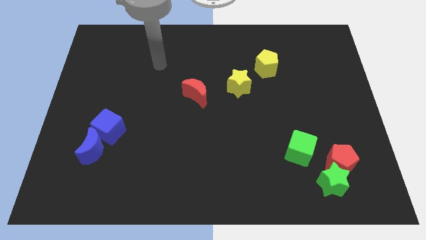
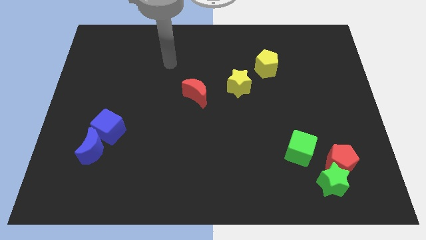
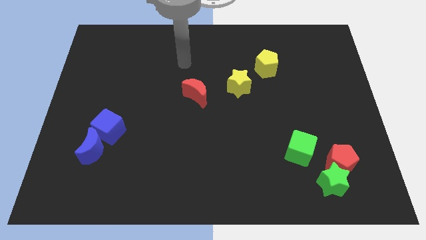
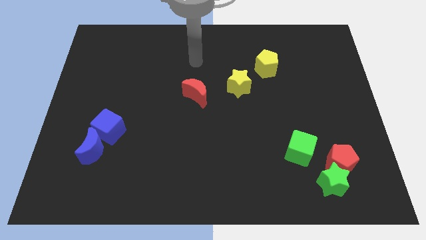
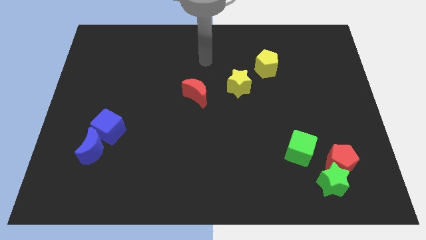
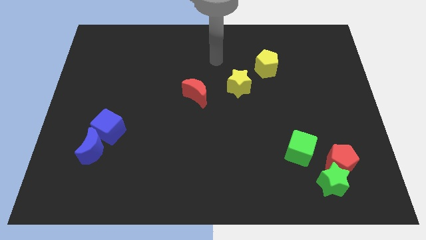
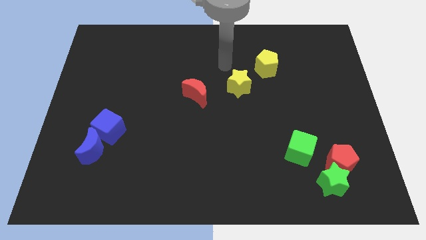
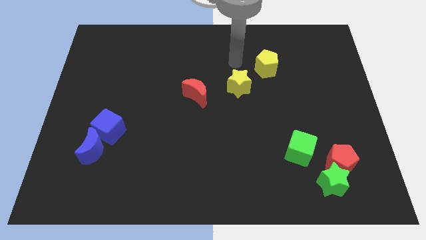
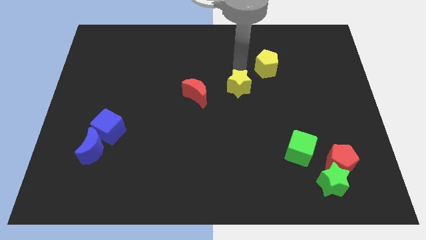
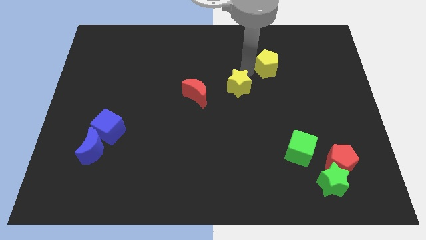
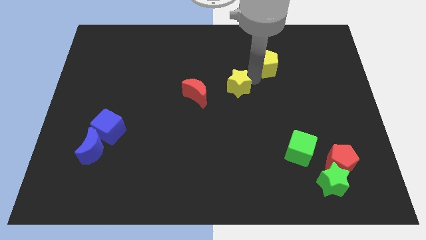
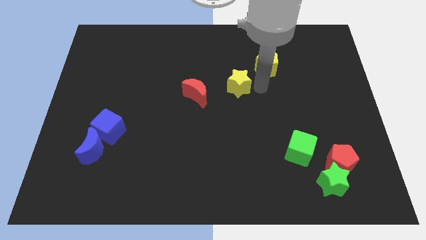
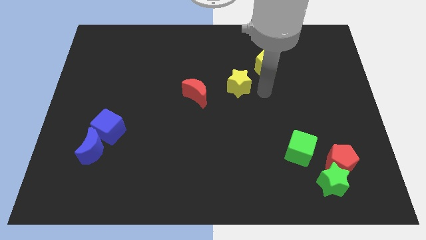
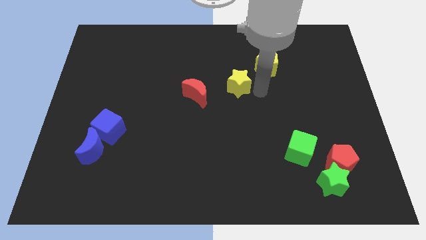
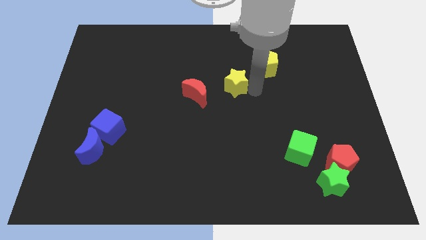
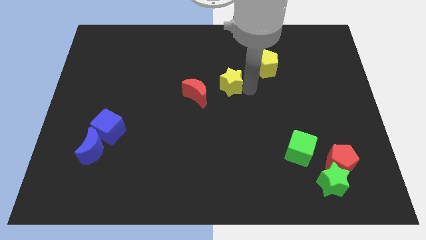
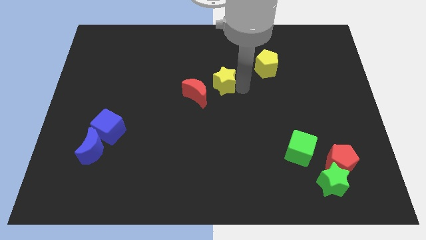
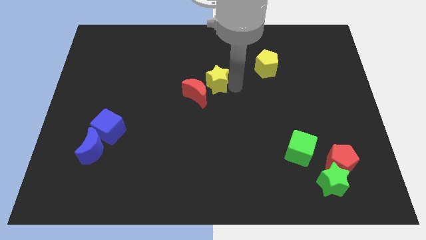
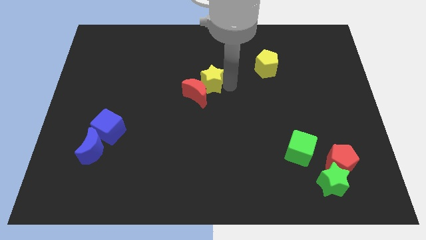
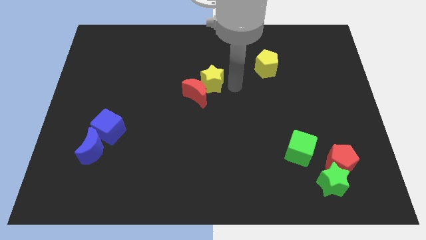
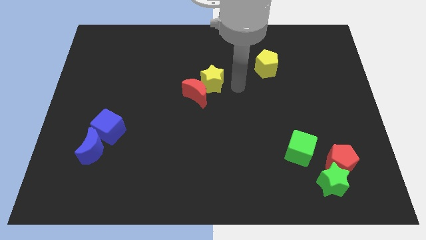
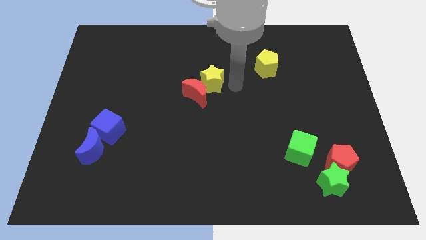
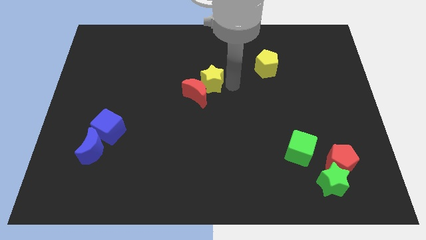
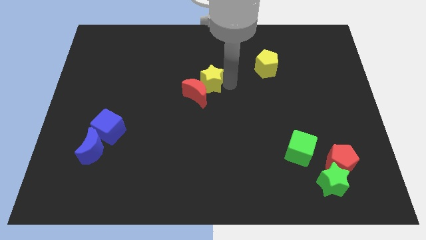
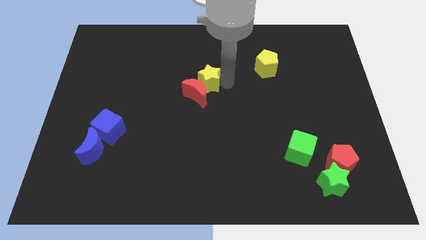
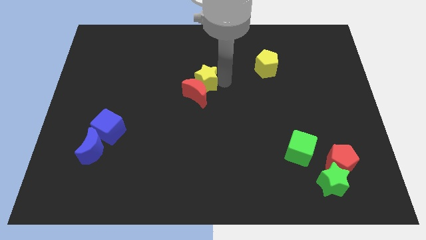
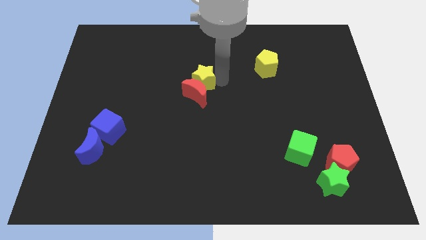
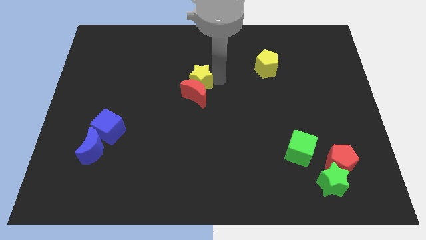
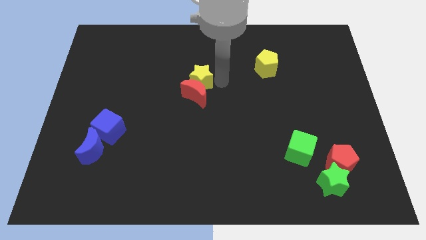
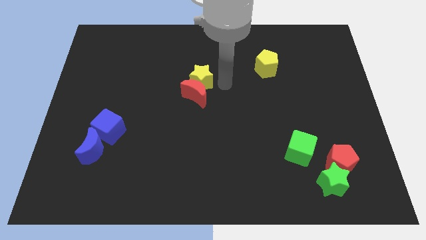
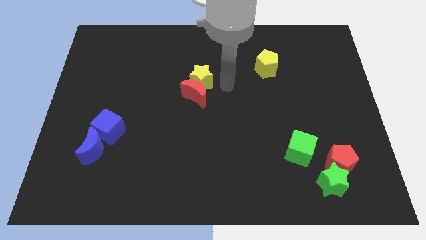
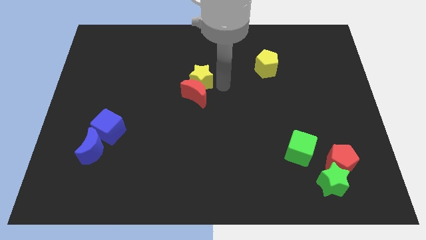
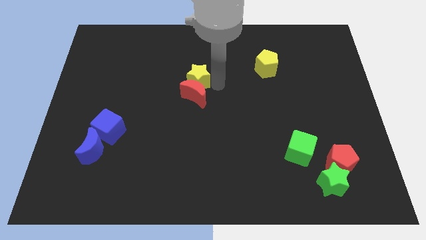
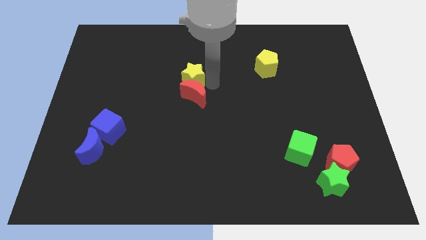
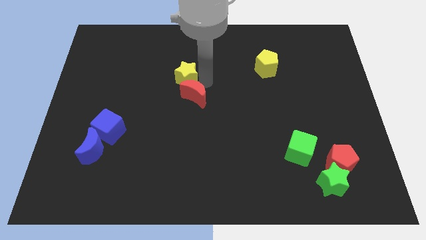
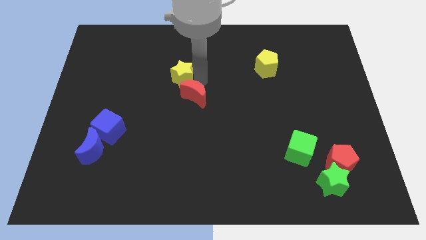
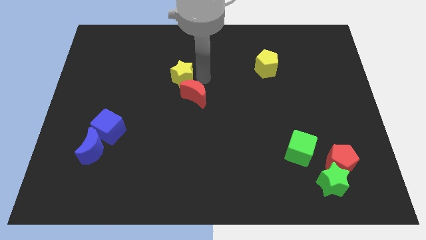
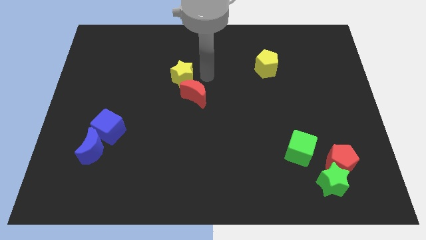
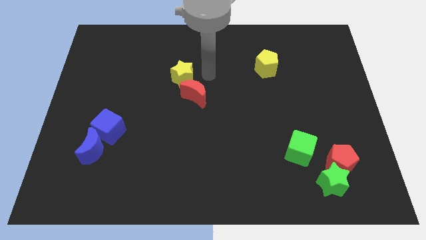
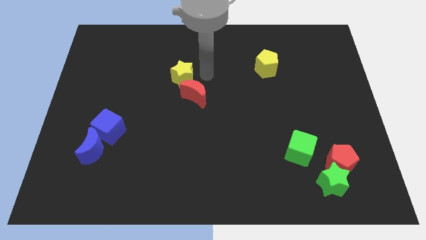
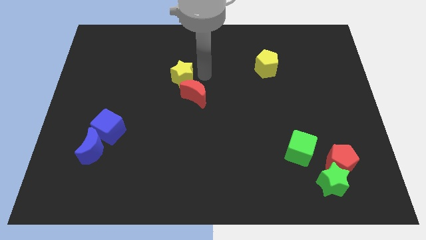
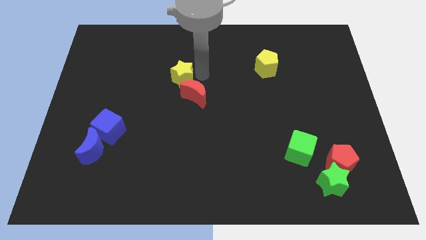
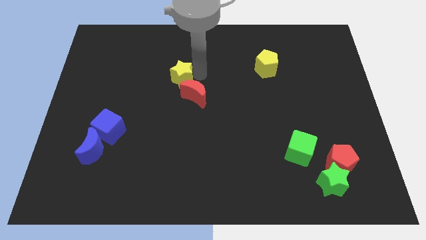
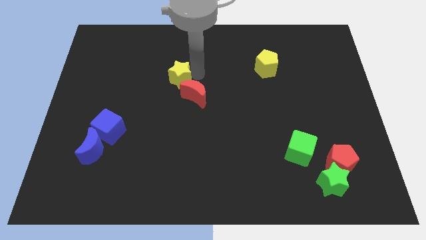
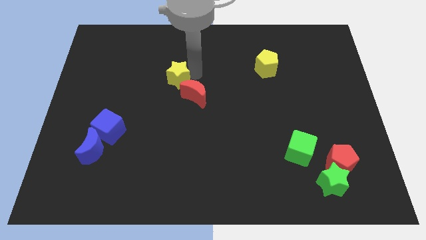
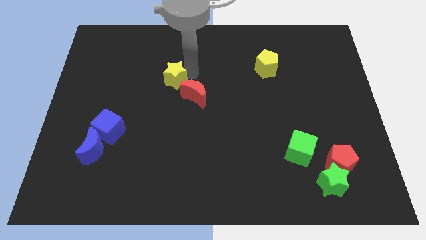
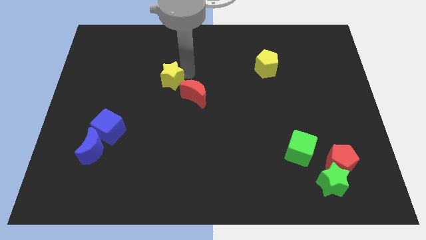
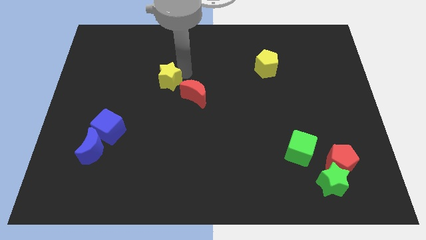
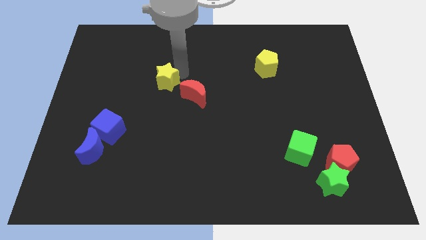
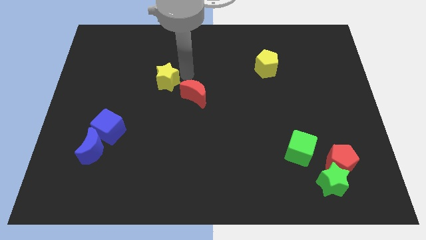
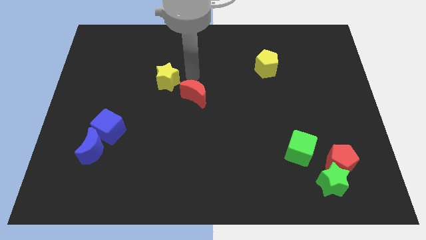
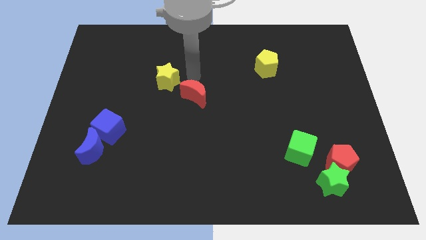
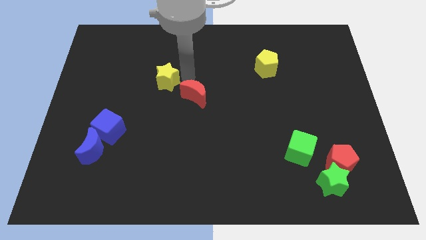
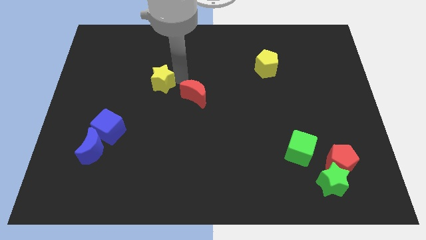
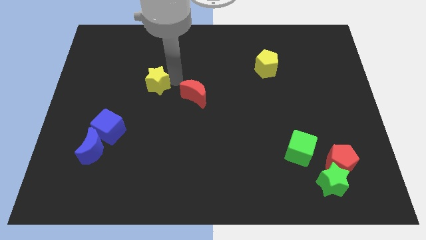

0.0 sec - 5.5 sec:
move the yellow star left

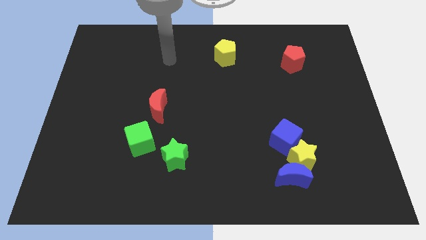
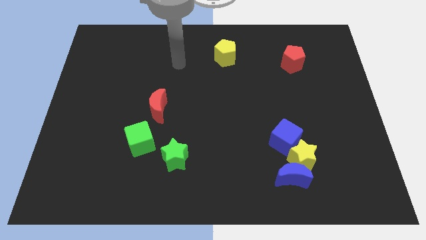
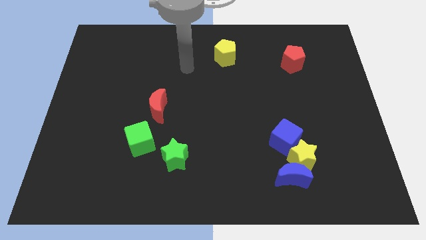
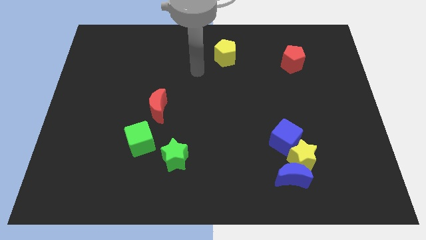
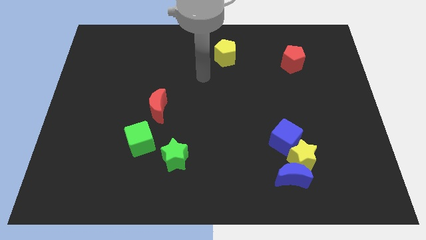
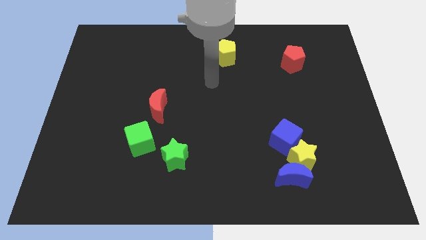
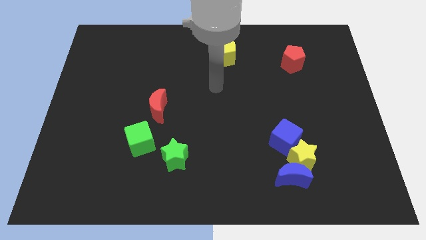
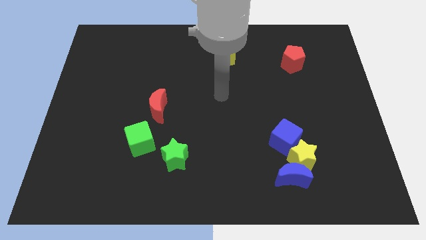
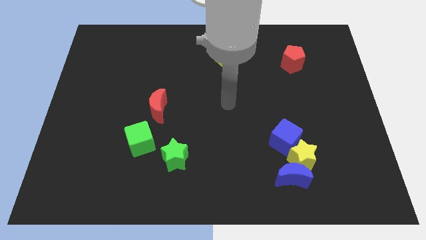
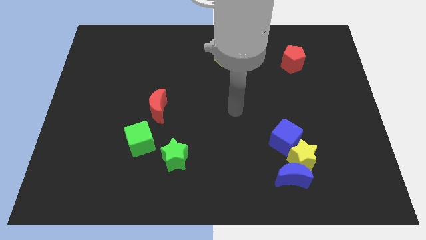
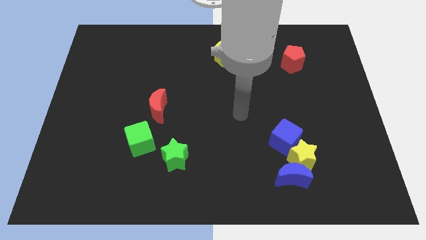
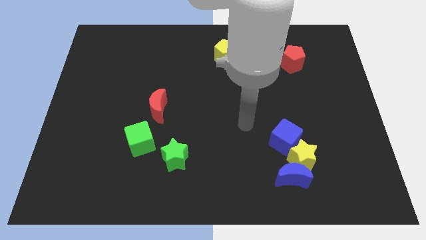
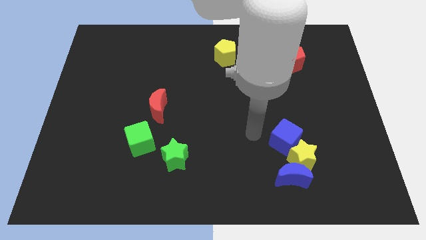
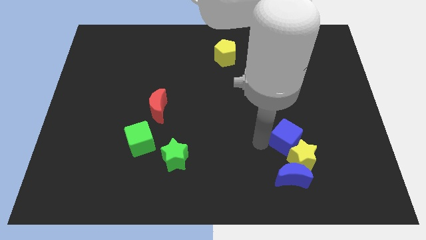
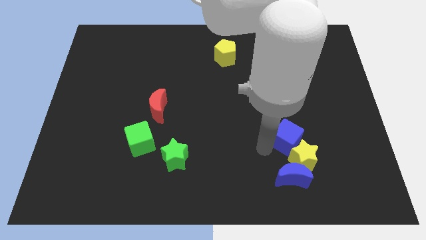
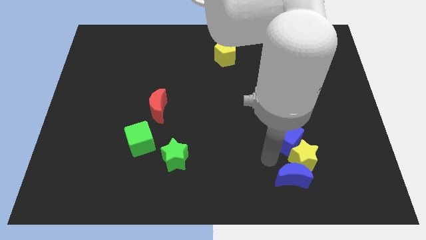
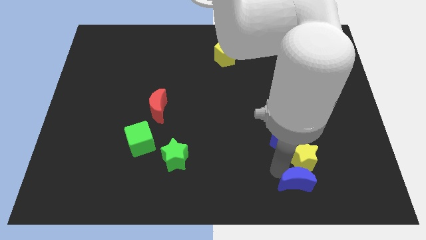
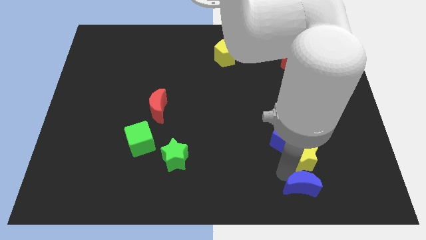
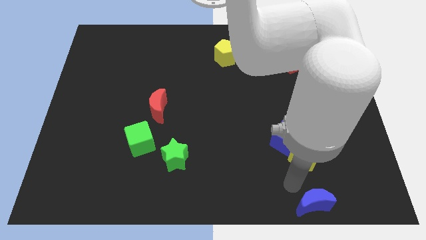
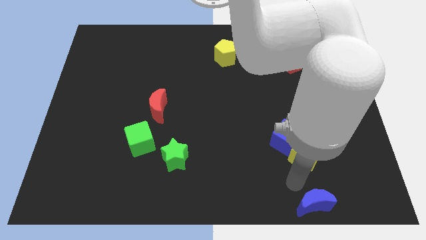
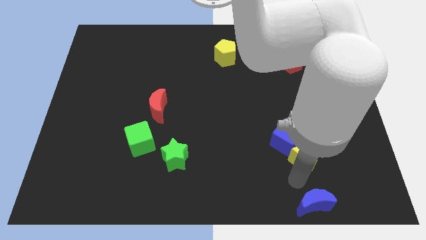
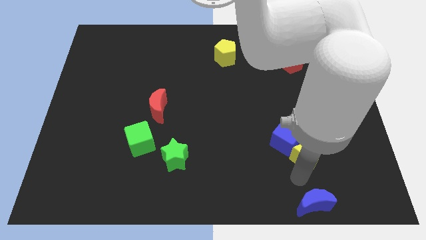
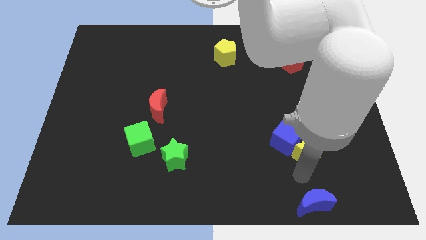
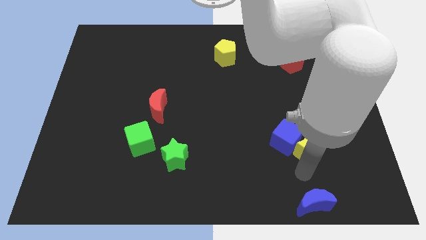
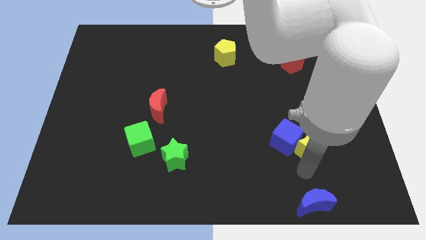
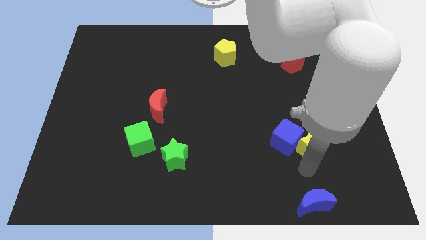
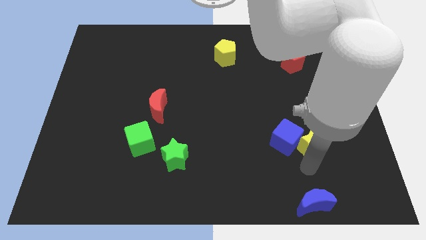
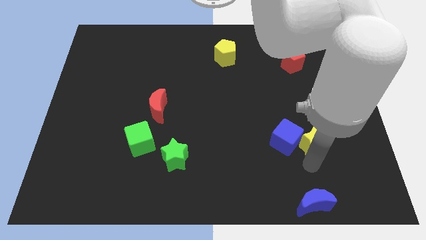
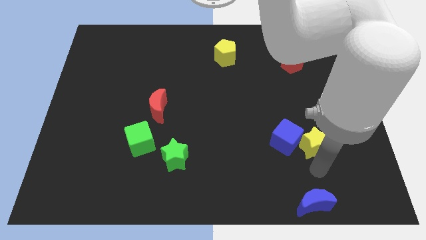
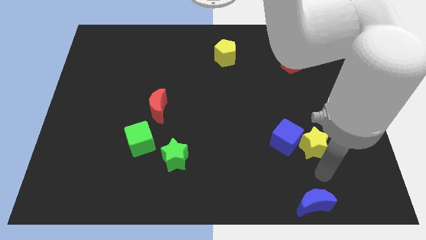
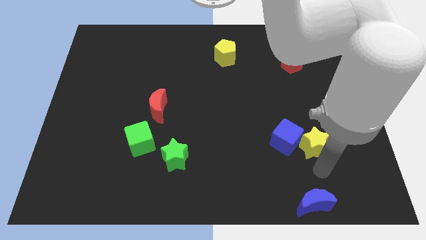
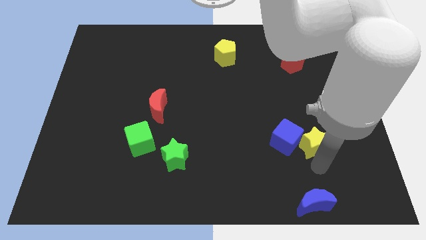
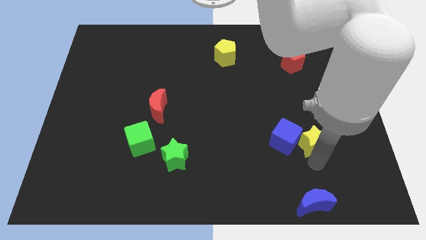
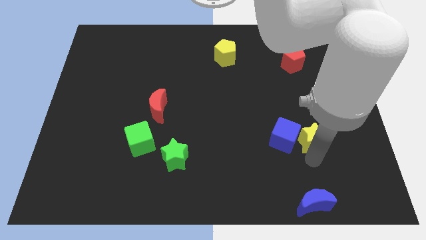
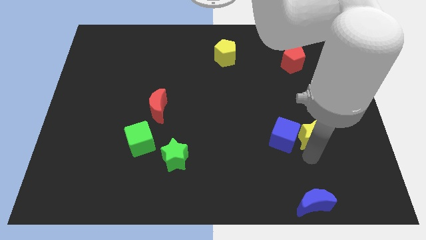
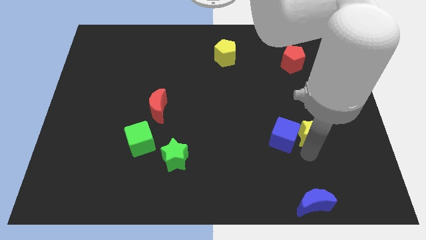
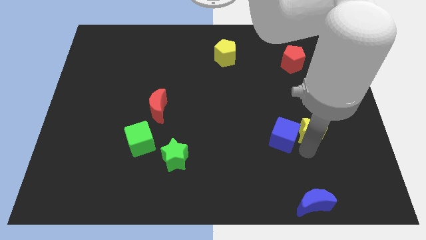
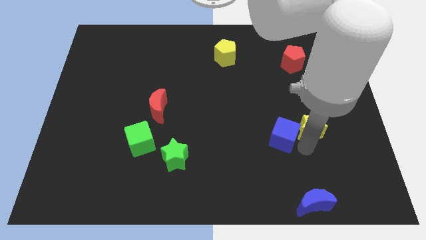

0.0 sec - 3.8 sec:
slide the yellow star a little upwards
